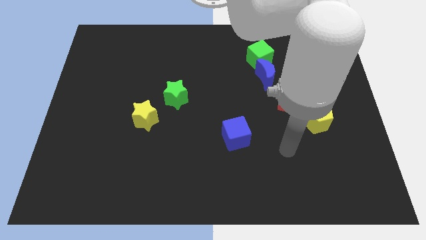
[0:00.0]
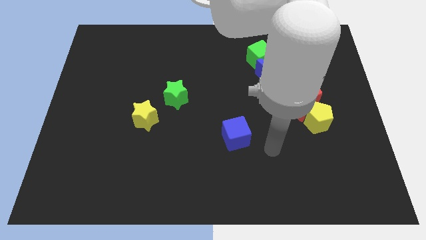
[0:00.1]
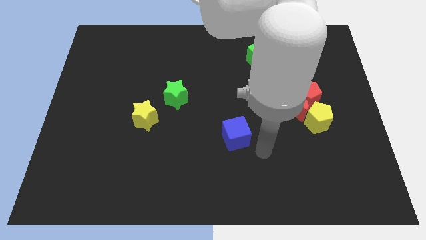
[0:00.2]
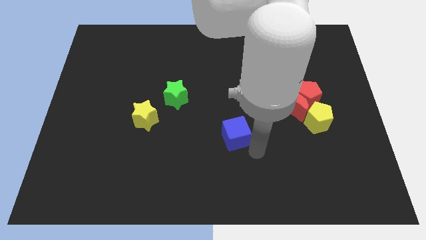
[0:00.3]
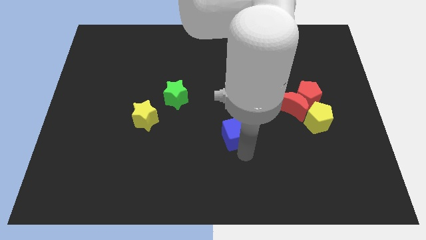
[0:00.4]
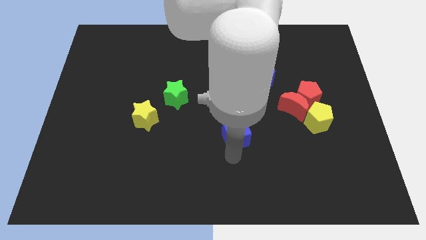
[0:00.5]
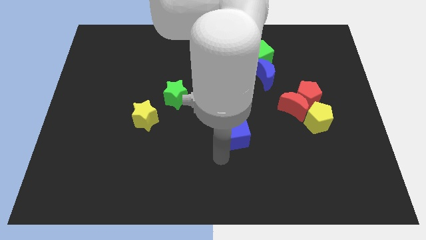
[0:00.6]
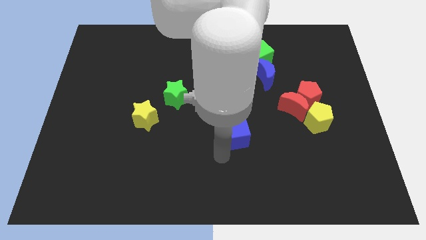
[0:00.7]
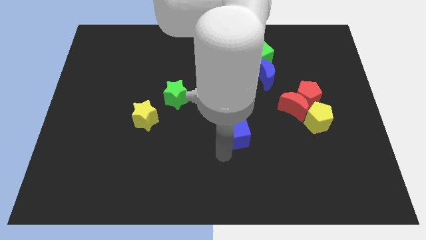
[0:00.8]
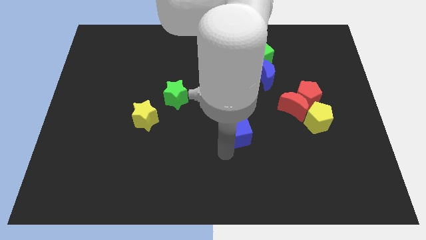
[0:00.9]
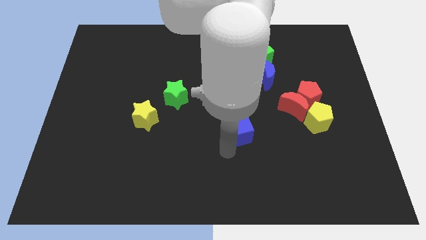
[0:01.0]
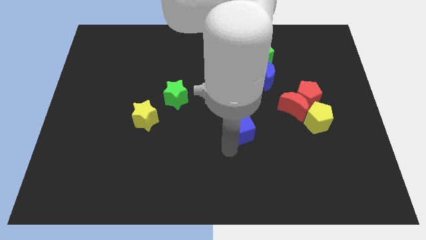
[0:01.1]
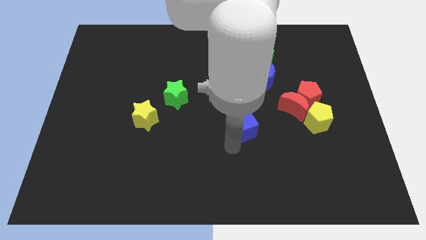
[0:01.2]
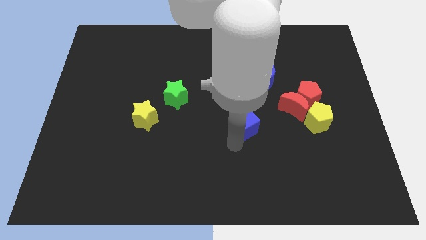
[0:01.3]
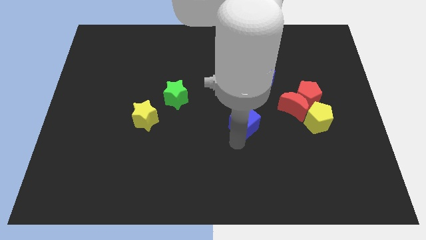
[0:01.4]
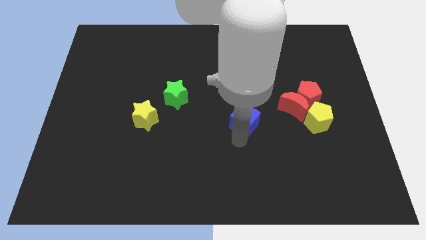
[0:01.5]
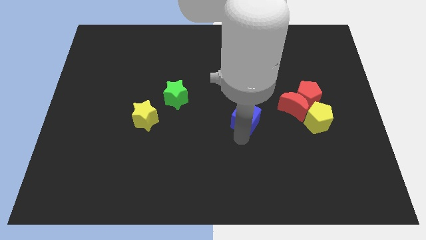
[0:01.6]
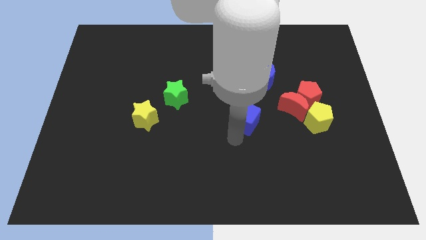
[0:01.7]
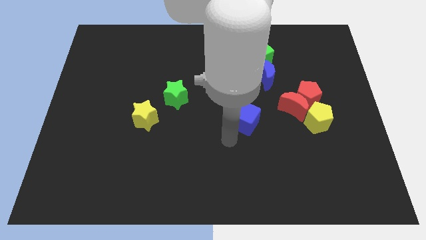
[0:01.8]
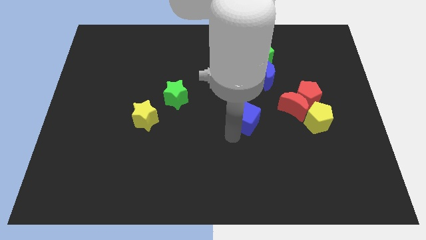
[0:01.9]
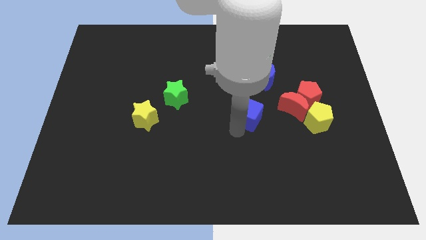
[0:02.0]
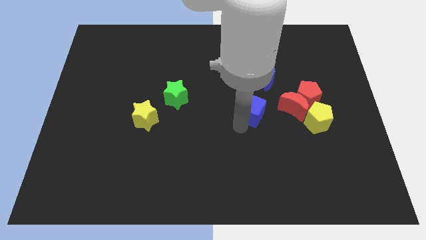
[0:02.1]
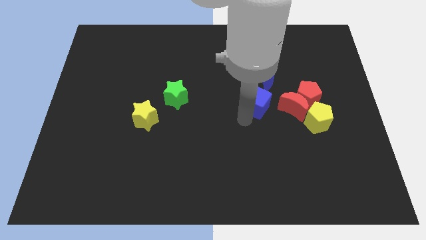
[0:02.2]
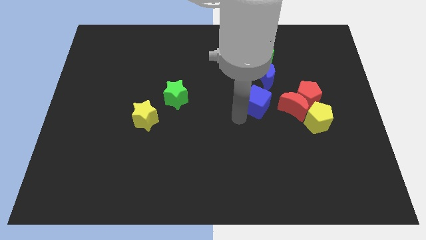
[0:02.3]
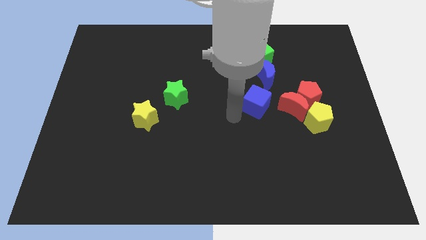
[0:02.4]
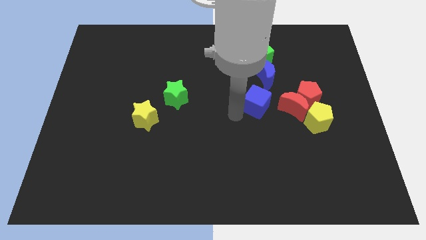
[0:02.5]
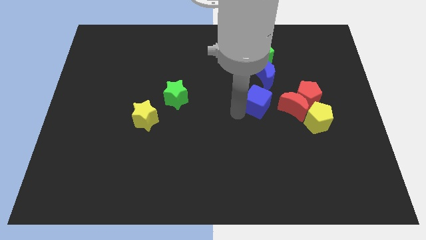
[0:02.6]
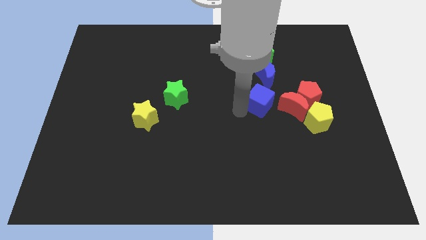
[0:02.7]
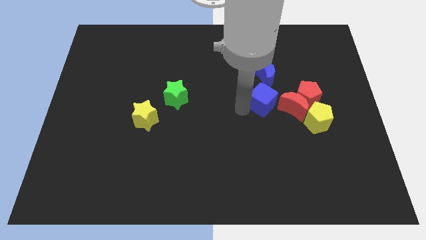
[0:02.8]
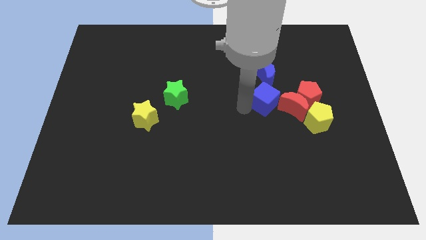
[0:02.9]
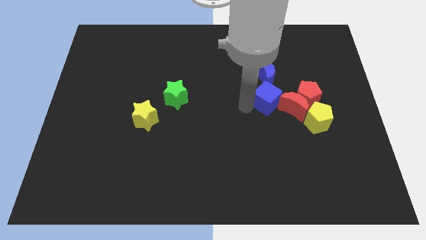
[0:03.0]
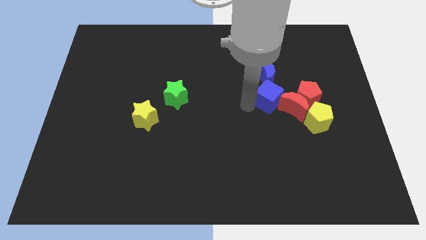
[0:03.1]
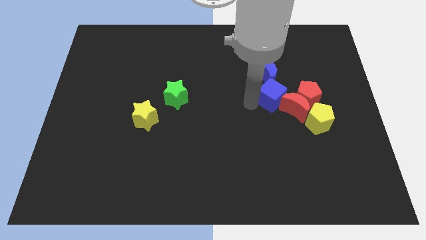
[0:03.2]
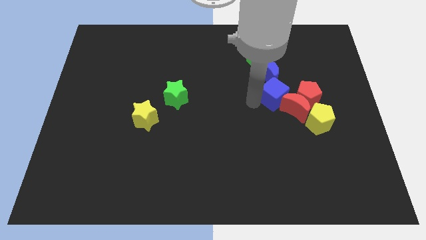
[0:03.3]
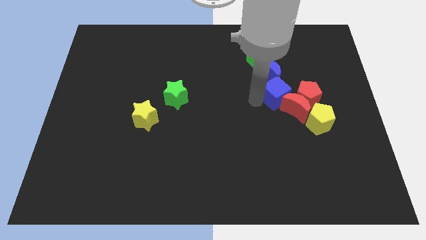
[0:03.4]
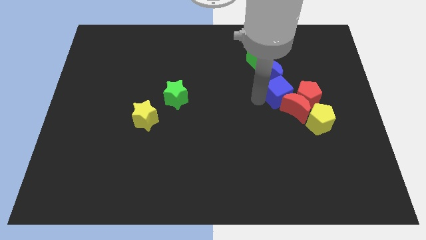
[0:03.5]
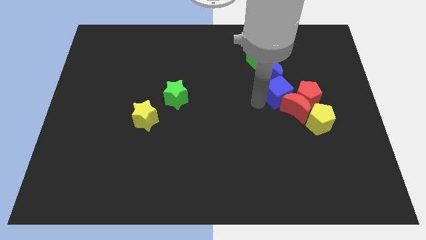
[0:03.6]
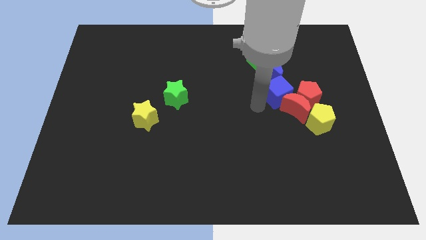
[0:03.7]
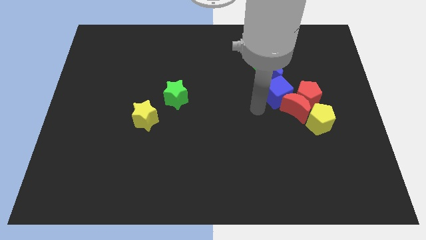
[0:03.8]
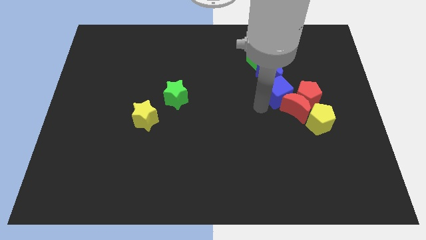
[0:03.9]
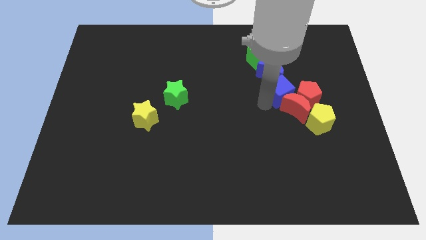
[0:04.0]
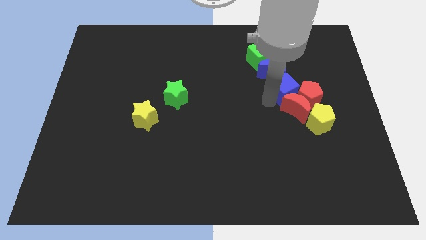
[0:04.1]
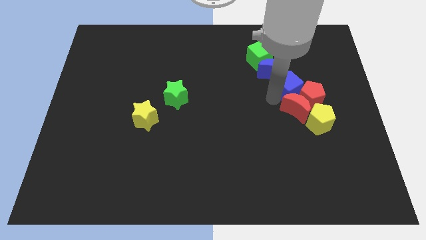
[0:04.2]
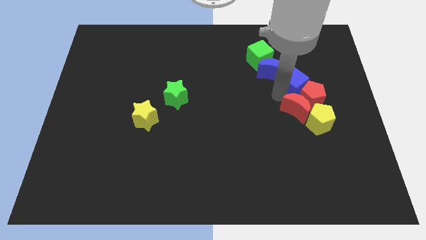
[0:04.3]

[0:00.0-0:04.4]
move the blue cube up and then to the right

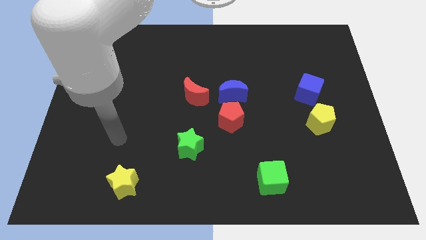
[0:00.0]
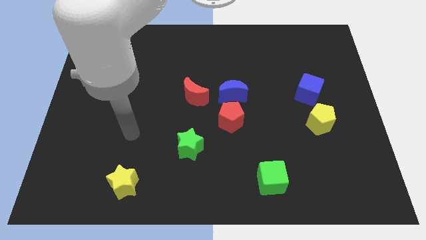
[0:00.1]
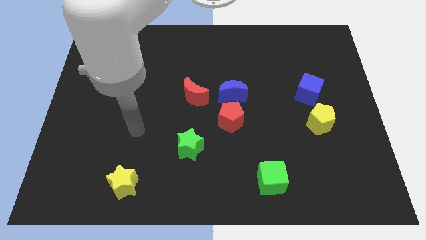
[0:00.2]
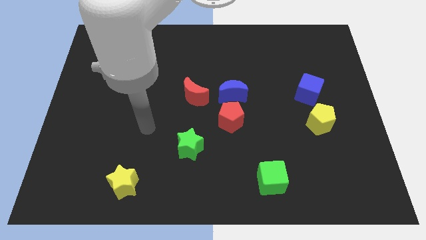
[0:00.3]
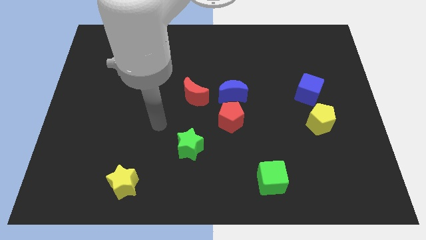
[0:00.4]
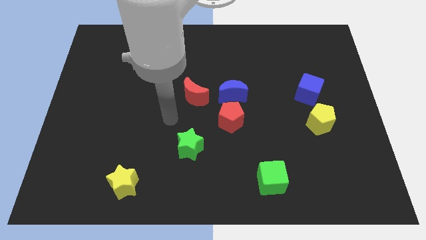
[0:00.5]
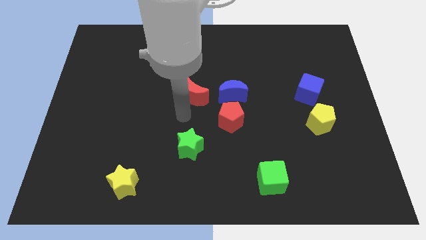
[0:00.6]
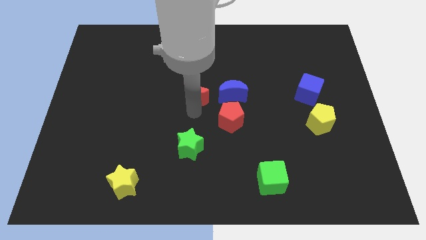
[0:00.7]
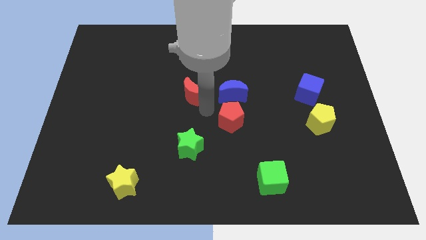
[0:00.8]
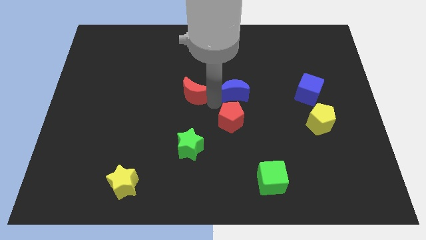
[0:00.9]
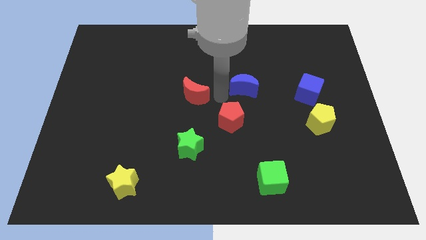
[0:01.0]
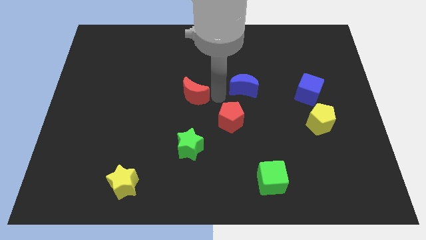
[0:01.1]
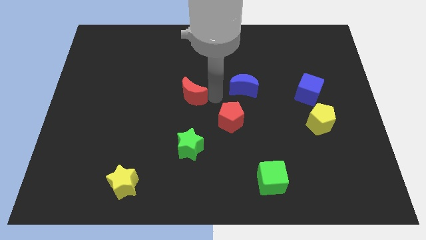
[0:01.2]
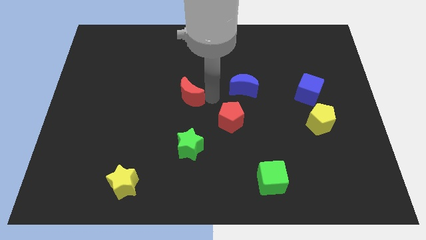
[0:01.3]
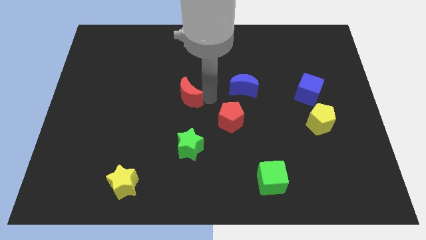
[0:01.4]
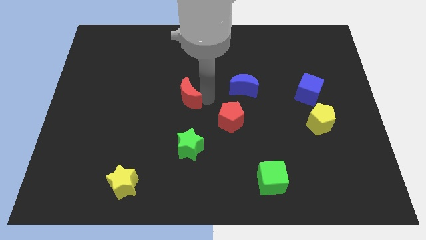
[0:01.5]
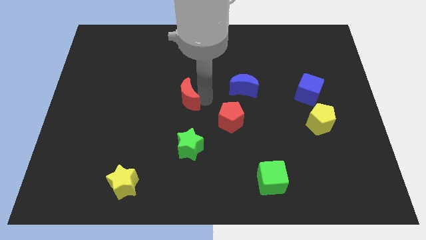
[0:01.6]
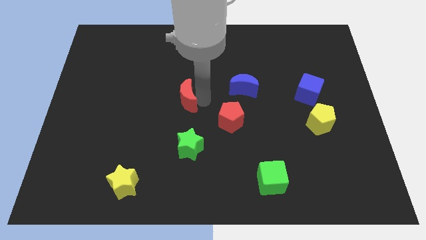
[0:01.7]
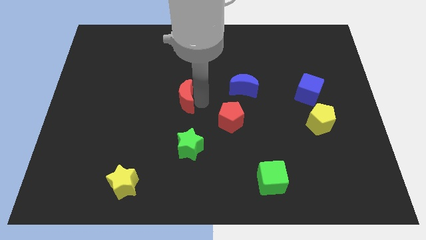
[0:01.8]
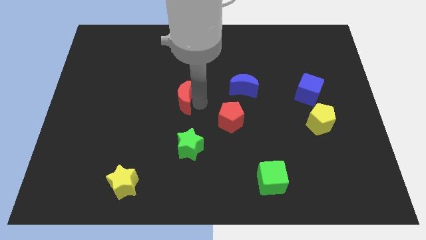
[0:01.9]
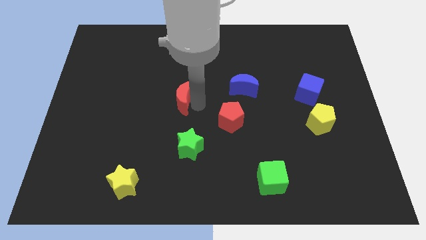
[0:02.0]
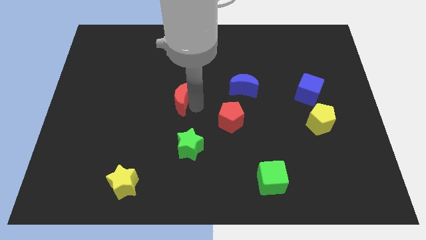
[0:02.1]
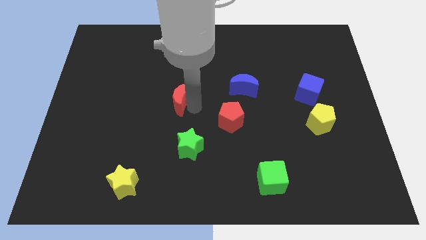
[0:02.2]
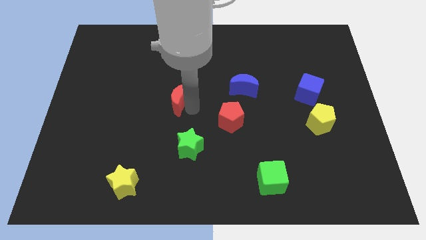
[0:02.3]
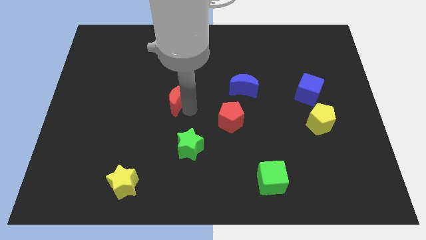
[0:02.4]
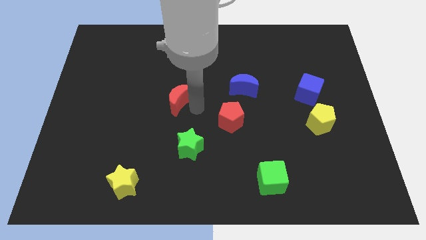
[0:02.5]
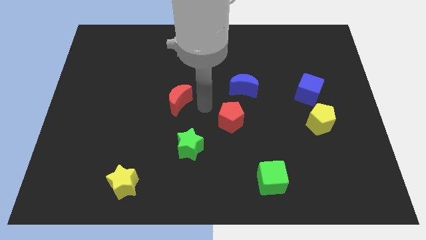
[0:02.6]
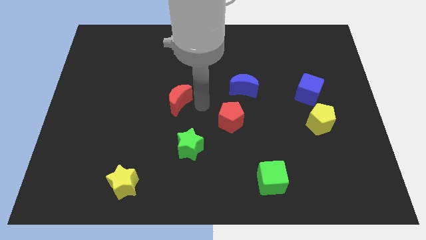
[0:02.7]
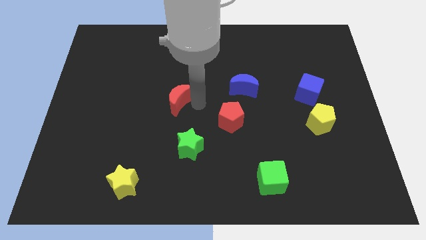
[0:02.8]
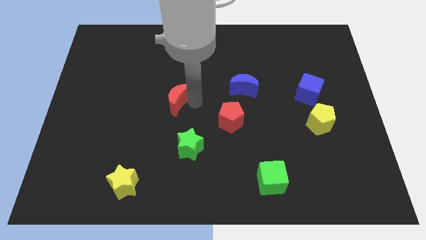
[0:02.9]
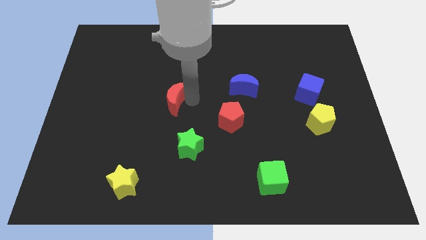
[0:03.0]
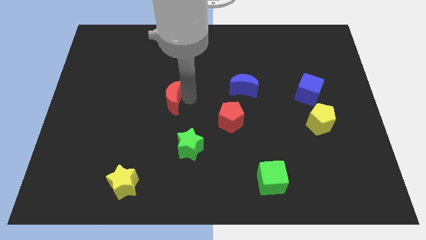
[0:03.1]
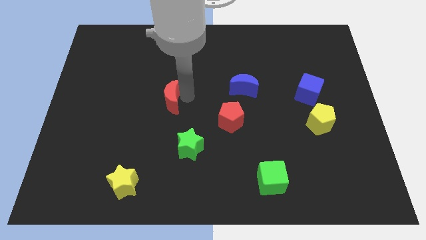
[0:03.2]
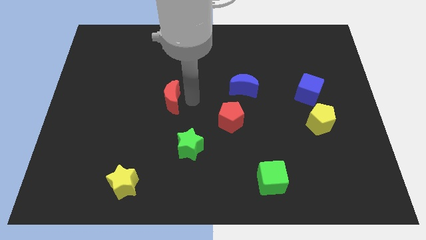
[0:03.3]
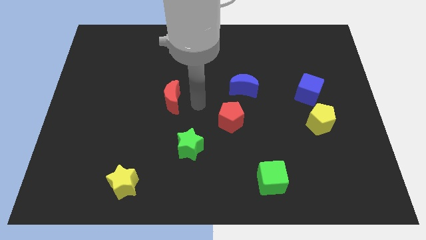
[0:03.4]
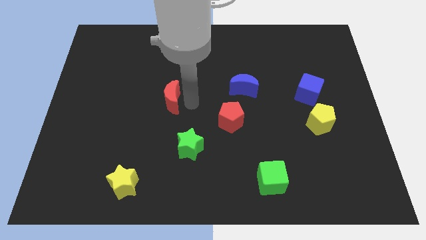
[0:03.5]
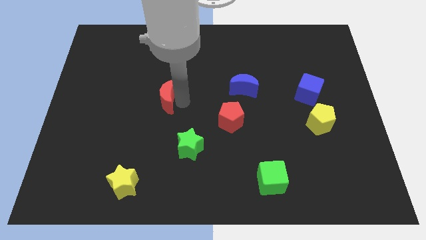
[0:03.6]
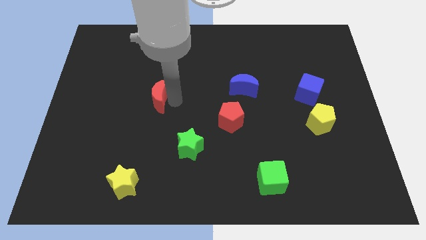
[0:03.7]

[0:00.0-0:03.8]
slightly slide the red moon to the left

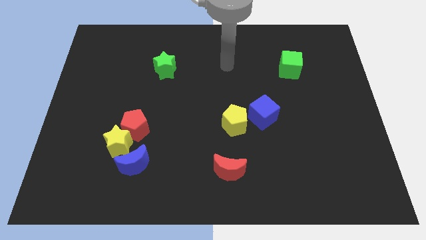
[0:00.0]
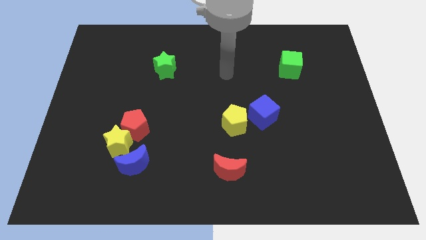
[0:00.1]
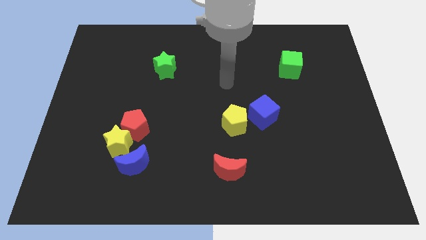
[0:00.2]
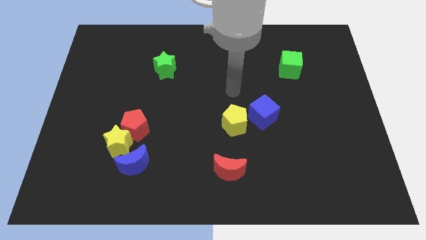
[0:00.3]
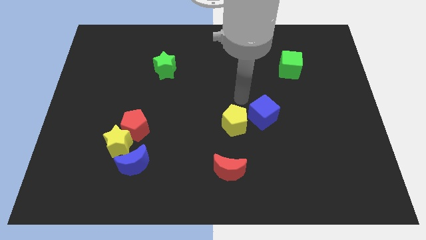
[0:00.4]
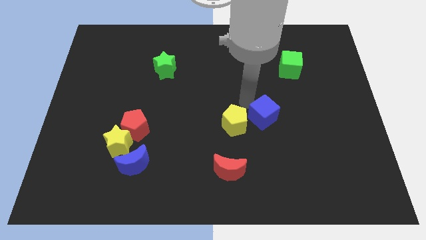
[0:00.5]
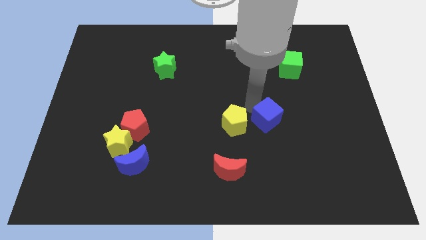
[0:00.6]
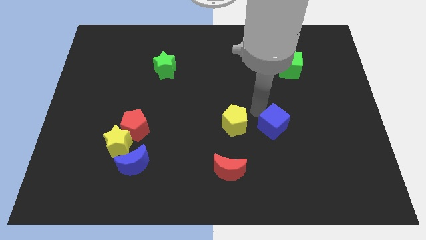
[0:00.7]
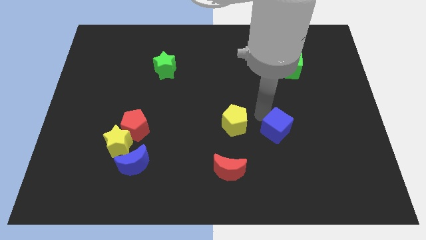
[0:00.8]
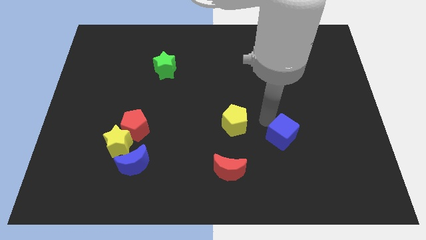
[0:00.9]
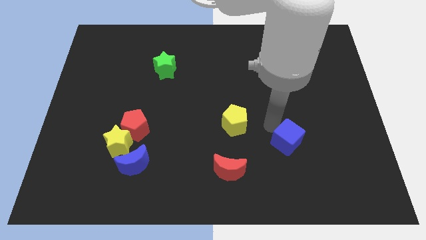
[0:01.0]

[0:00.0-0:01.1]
slide the blue cube slightly diagonally downwards and right
